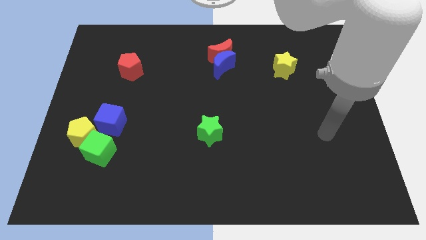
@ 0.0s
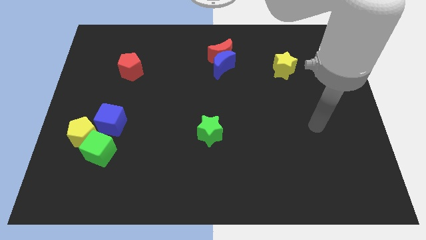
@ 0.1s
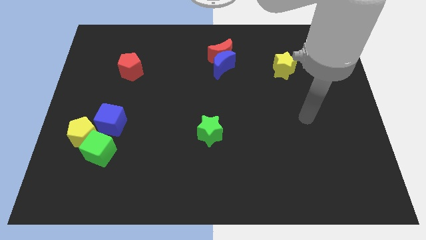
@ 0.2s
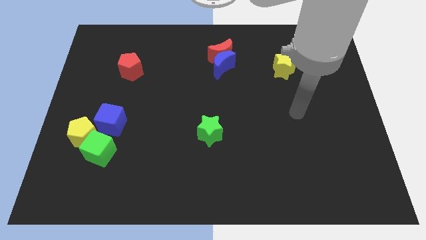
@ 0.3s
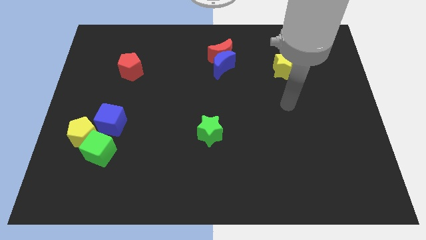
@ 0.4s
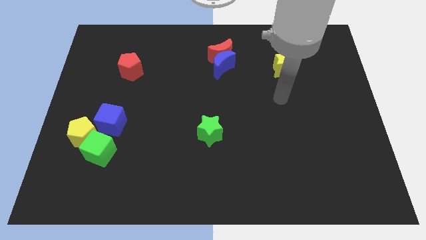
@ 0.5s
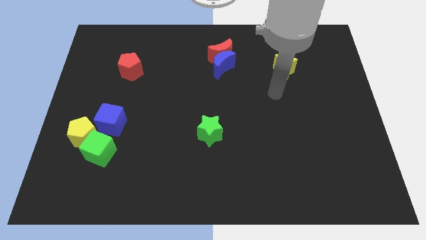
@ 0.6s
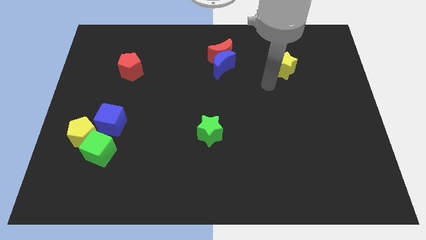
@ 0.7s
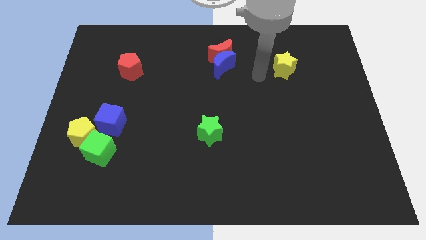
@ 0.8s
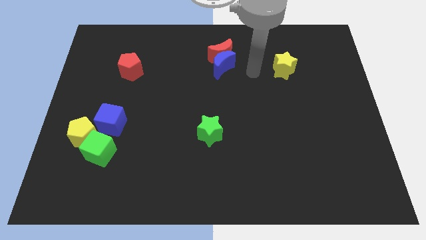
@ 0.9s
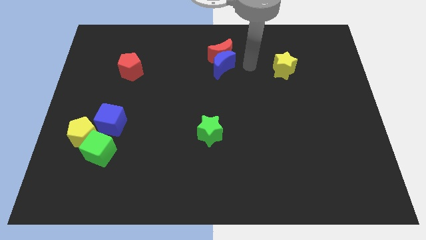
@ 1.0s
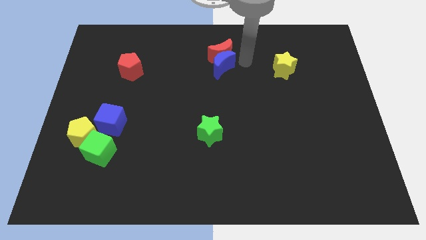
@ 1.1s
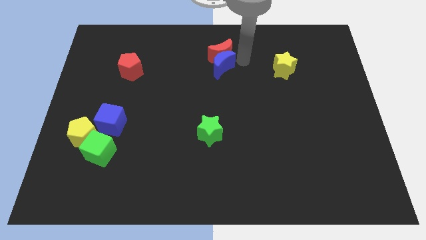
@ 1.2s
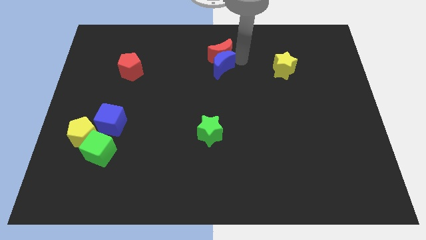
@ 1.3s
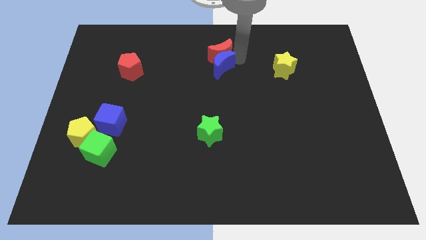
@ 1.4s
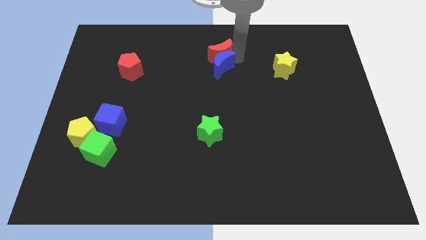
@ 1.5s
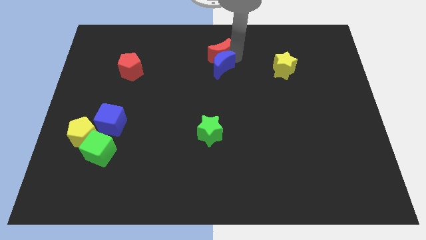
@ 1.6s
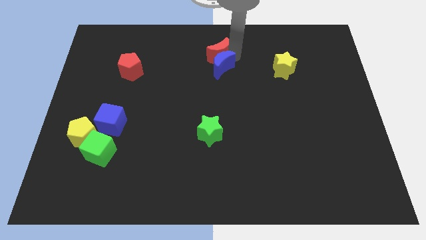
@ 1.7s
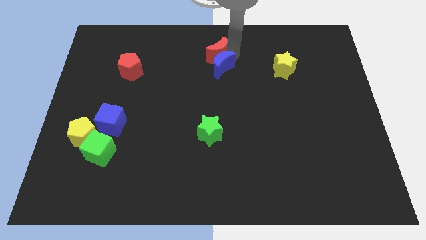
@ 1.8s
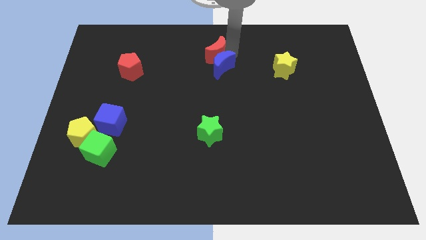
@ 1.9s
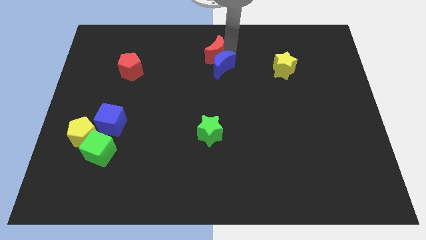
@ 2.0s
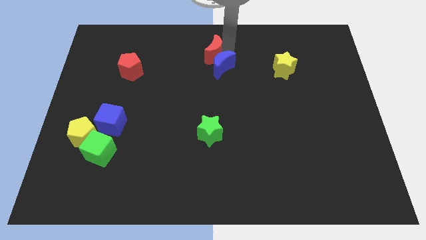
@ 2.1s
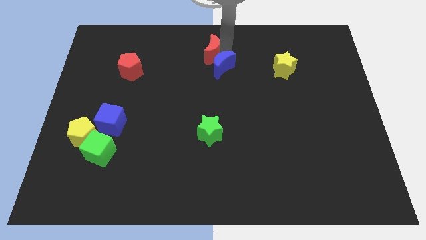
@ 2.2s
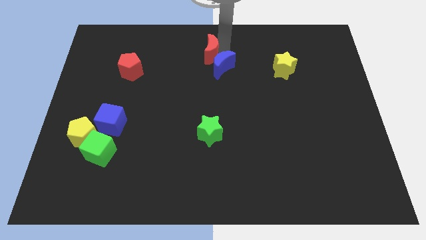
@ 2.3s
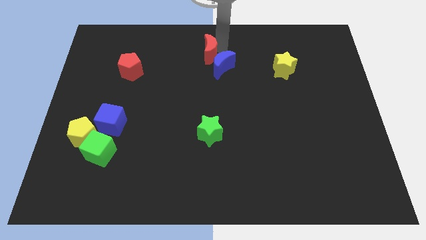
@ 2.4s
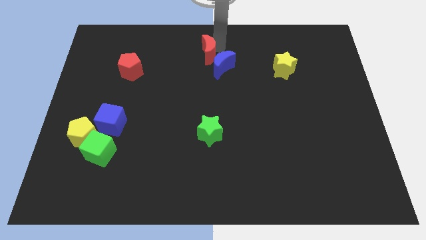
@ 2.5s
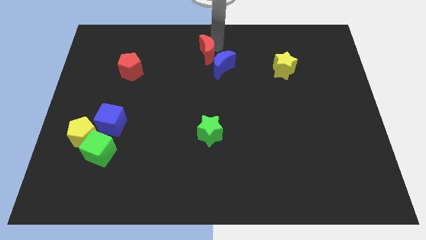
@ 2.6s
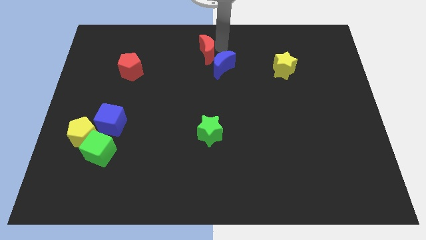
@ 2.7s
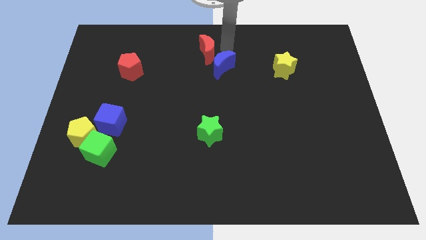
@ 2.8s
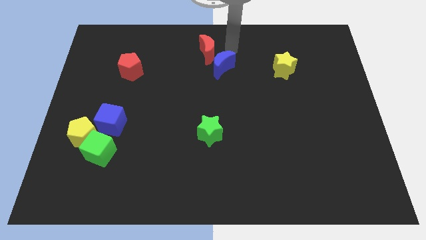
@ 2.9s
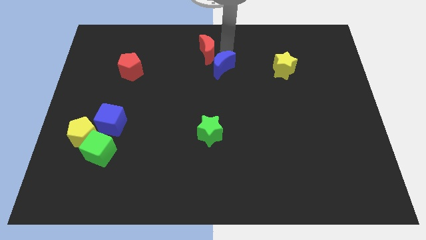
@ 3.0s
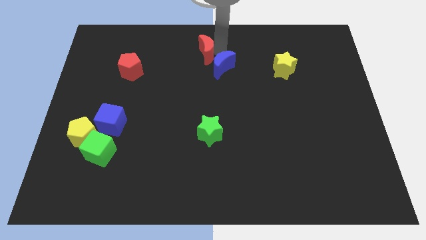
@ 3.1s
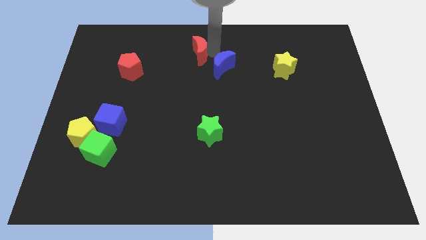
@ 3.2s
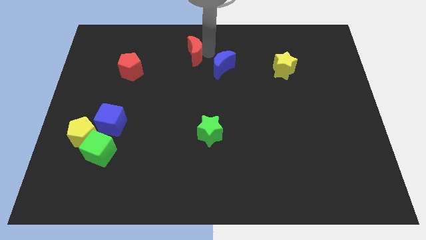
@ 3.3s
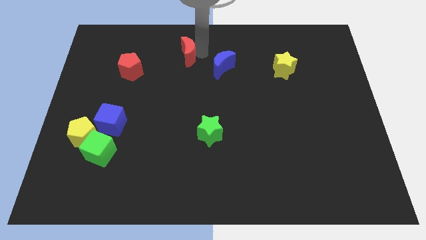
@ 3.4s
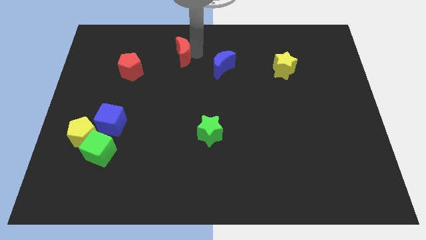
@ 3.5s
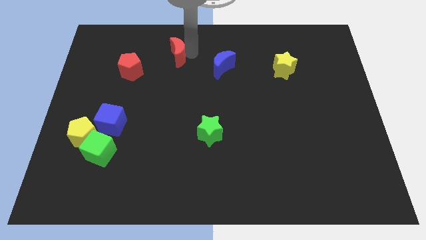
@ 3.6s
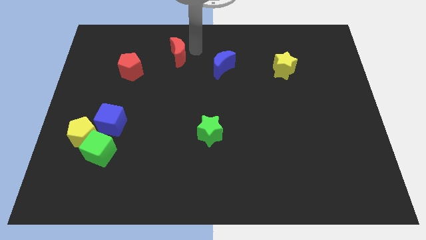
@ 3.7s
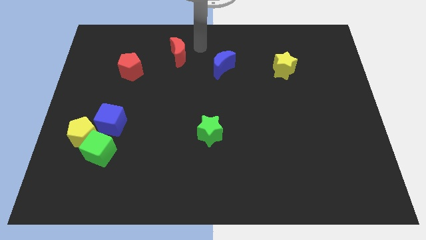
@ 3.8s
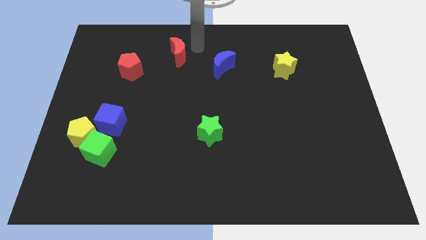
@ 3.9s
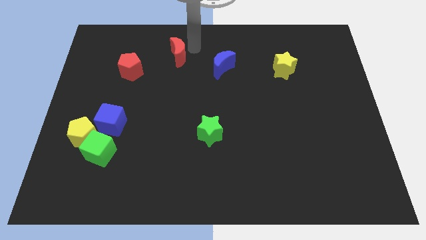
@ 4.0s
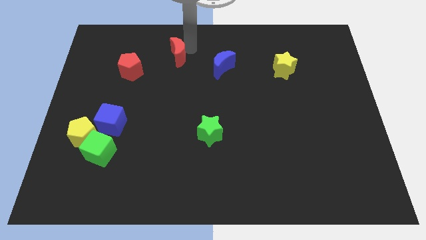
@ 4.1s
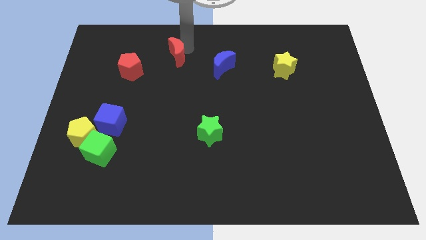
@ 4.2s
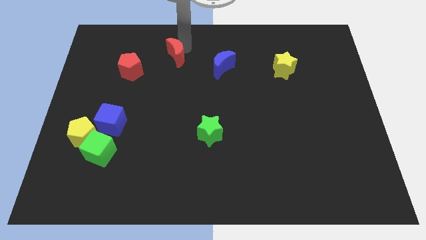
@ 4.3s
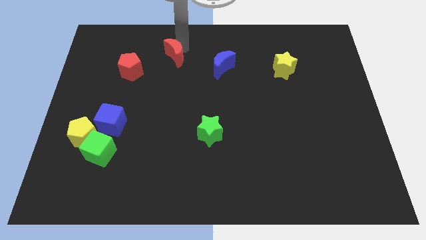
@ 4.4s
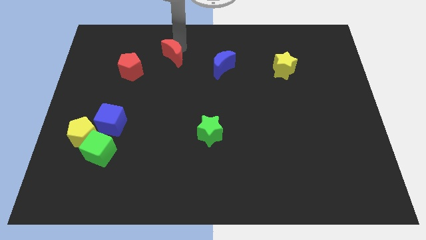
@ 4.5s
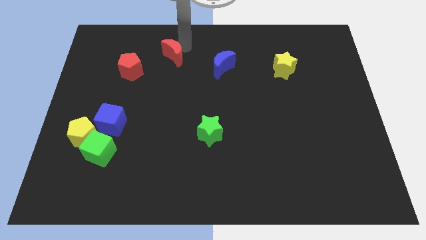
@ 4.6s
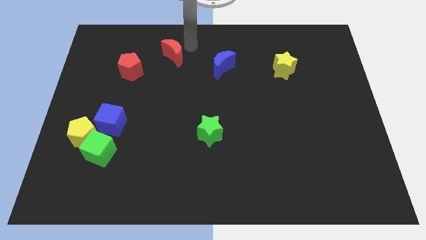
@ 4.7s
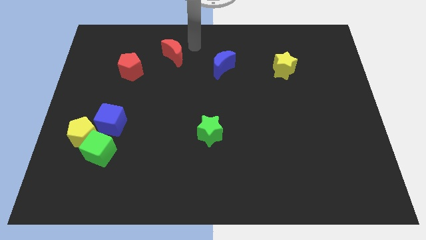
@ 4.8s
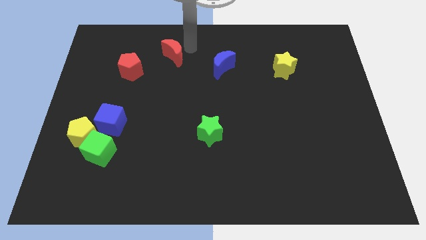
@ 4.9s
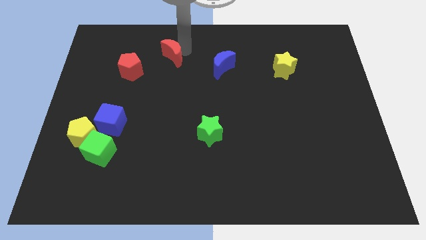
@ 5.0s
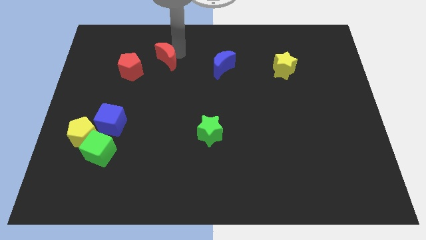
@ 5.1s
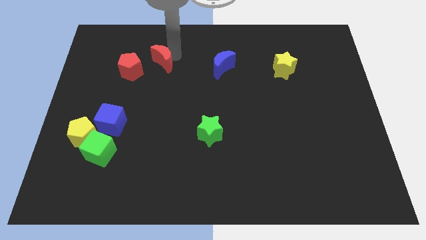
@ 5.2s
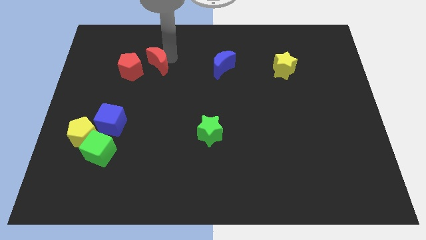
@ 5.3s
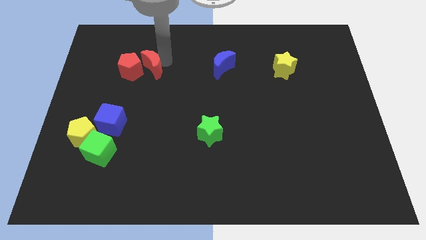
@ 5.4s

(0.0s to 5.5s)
push the red moon next to the red pentagon

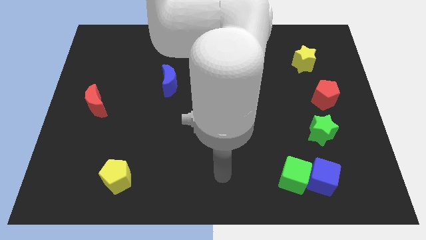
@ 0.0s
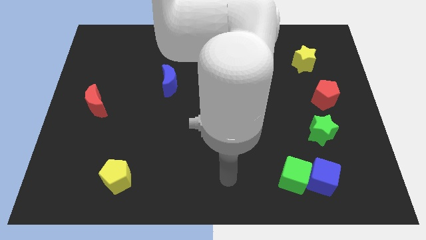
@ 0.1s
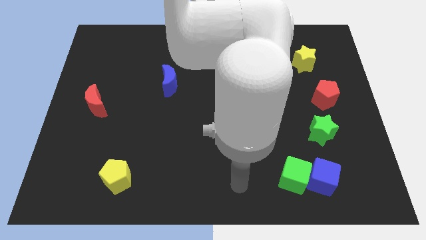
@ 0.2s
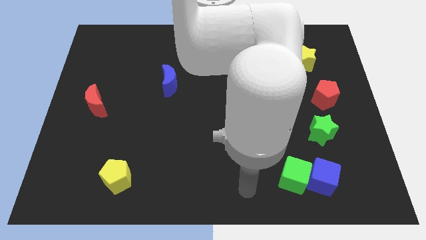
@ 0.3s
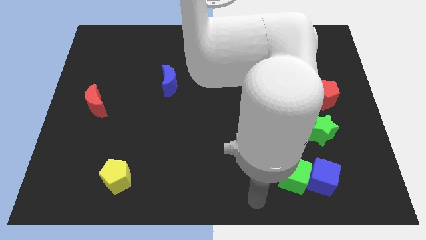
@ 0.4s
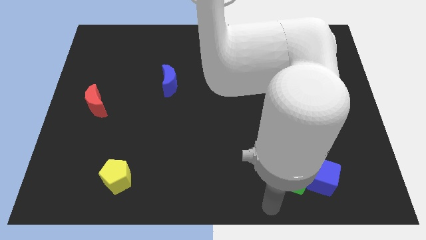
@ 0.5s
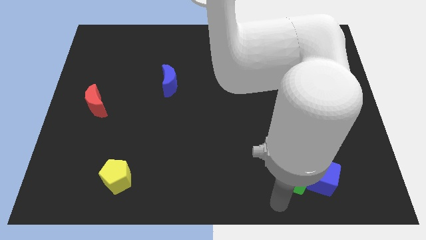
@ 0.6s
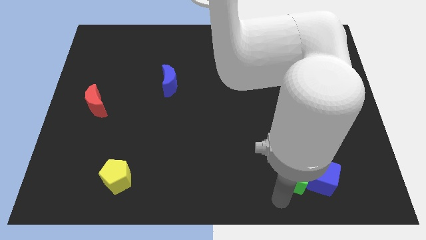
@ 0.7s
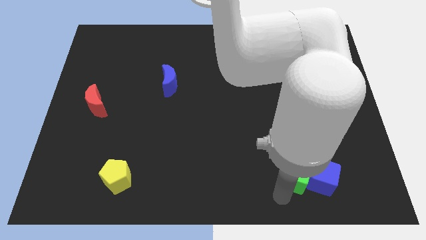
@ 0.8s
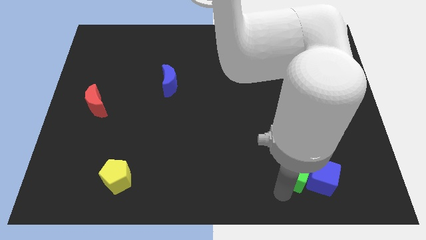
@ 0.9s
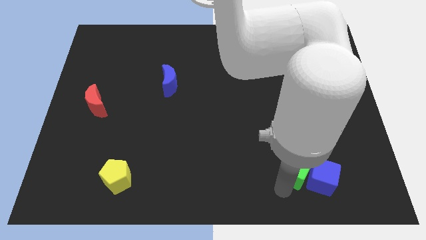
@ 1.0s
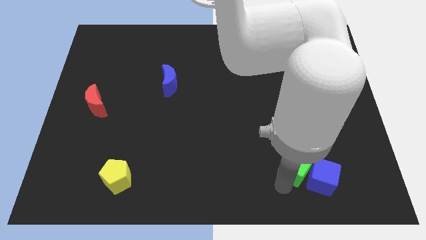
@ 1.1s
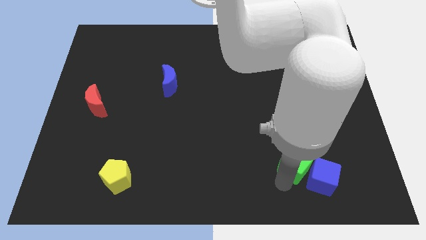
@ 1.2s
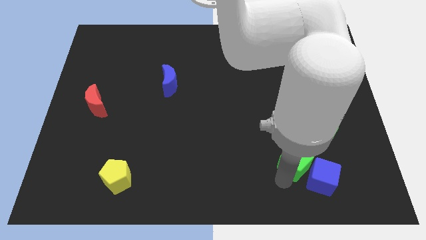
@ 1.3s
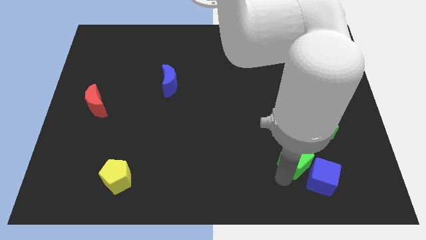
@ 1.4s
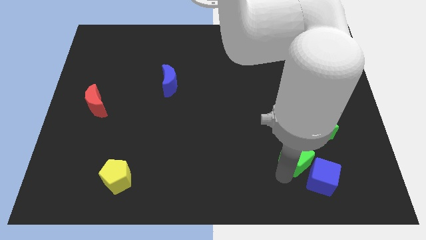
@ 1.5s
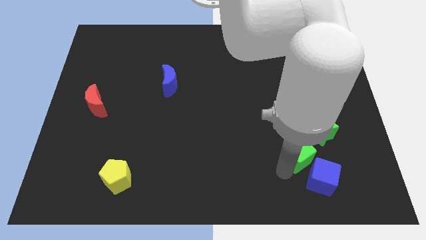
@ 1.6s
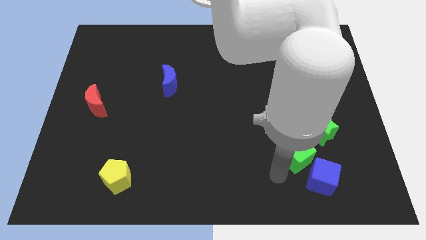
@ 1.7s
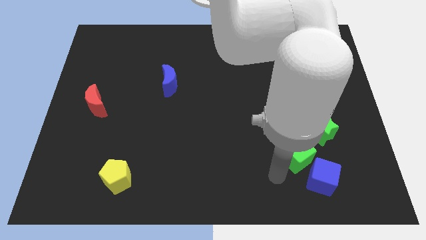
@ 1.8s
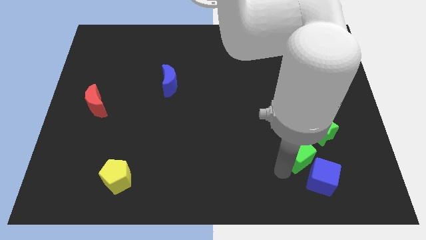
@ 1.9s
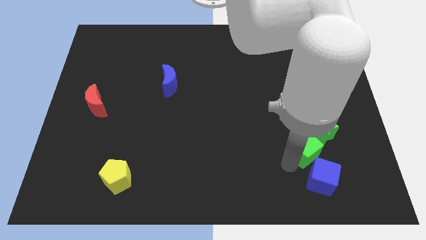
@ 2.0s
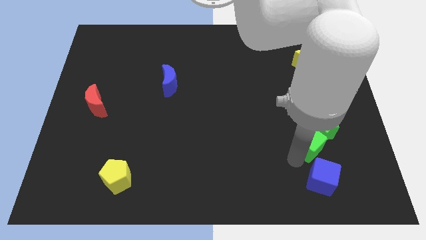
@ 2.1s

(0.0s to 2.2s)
put the green cube towards the green star
